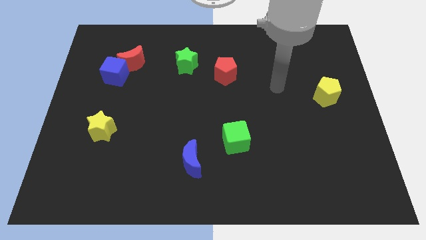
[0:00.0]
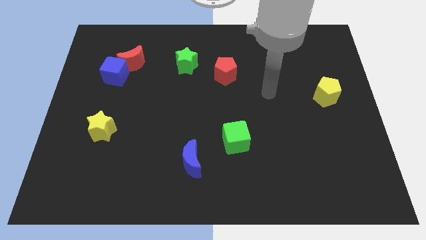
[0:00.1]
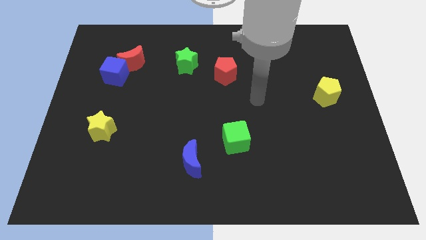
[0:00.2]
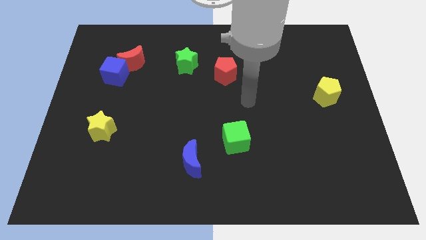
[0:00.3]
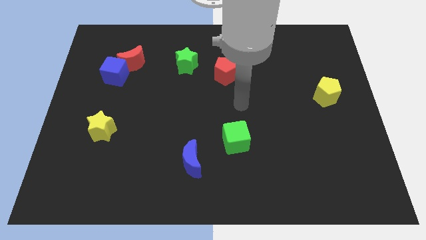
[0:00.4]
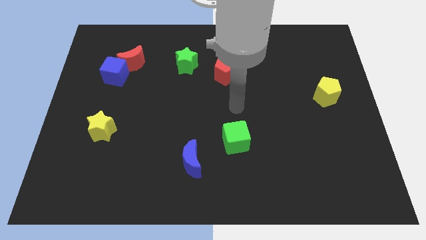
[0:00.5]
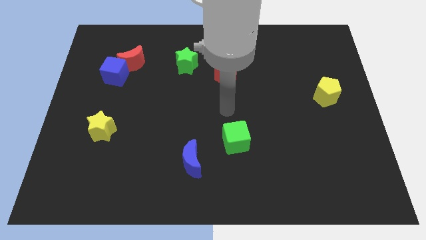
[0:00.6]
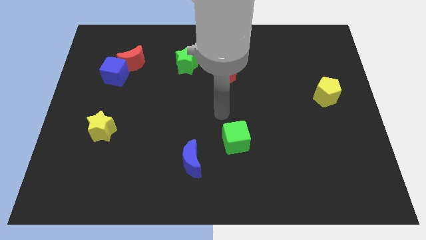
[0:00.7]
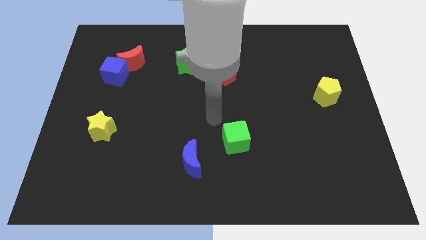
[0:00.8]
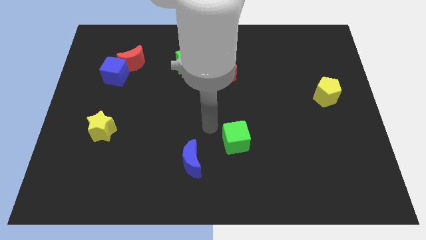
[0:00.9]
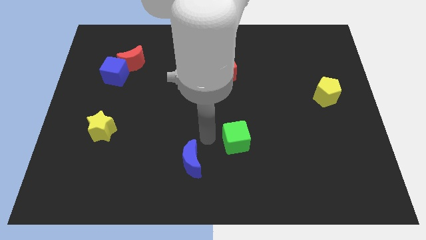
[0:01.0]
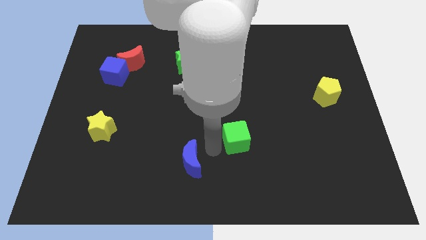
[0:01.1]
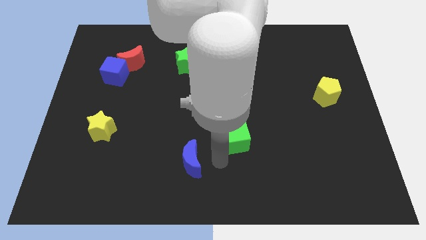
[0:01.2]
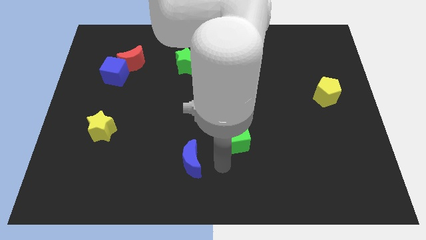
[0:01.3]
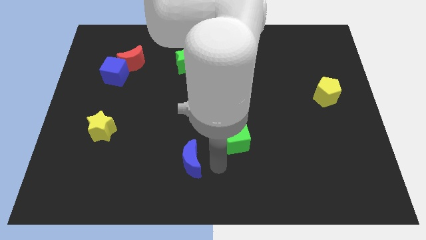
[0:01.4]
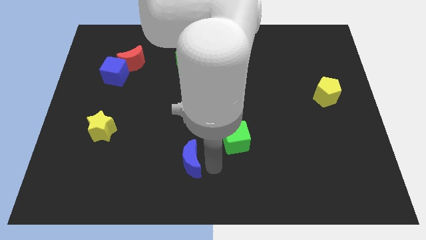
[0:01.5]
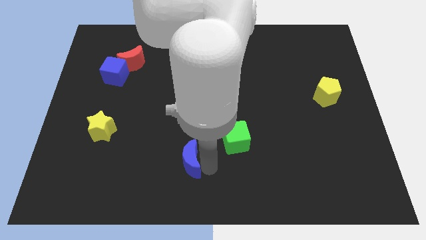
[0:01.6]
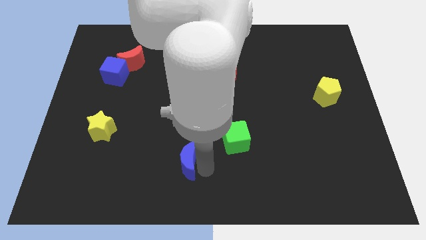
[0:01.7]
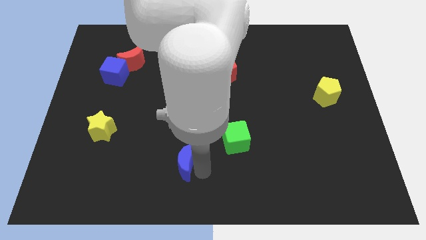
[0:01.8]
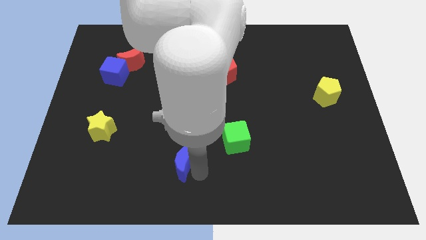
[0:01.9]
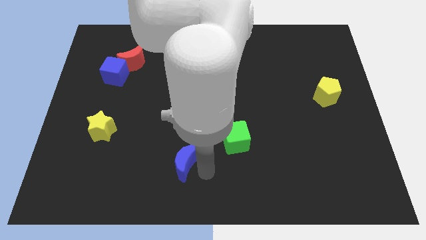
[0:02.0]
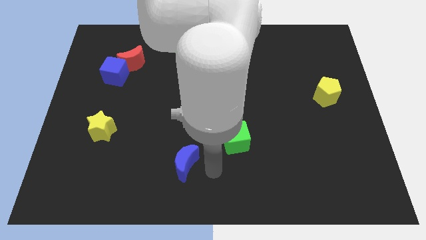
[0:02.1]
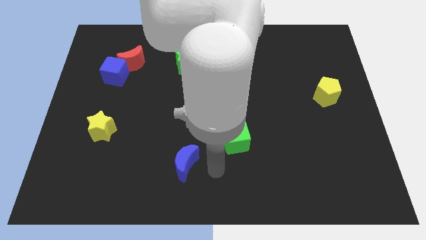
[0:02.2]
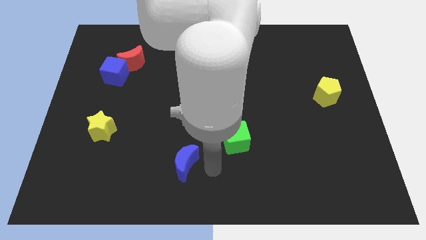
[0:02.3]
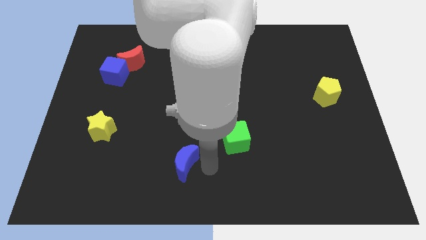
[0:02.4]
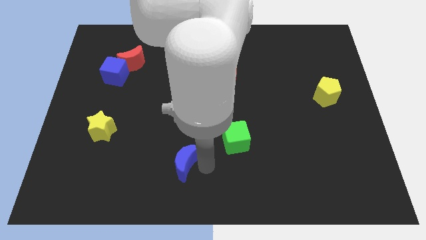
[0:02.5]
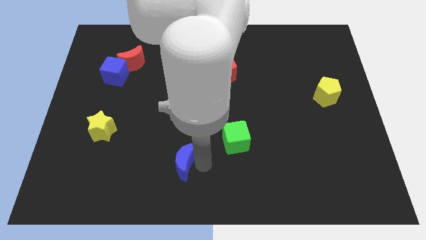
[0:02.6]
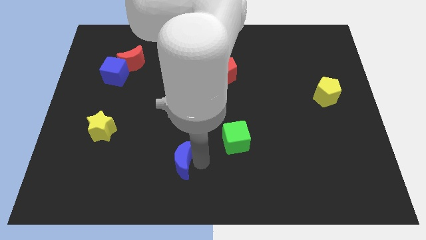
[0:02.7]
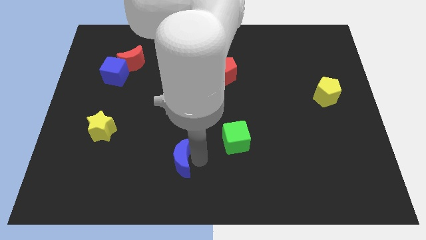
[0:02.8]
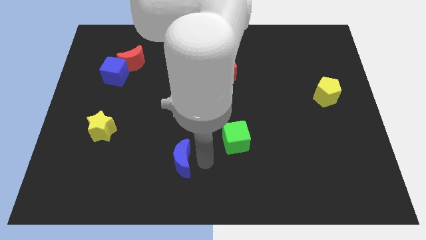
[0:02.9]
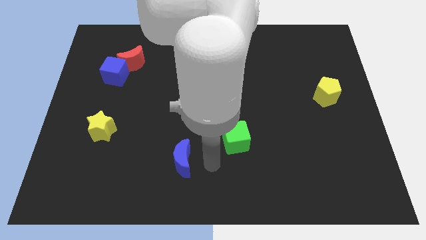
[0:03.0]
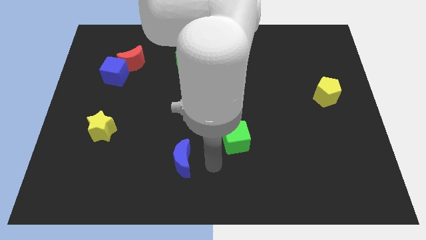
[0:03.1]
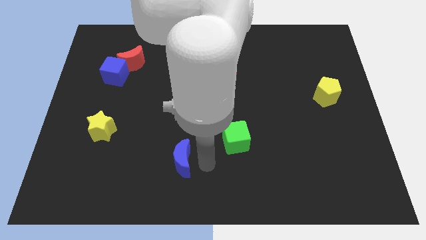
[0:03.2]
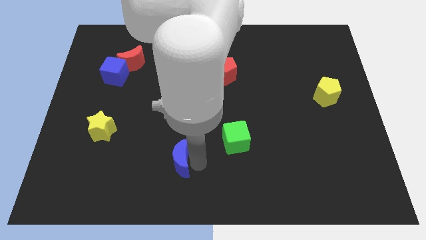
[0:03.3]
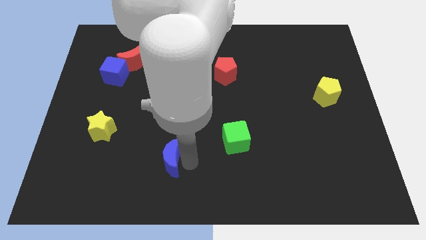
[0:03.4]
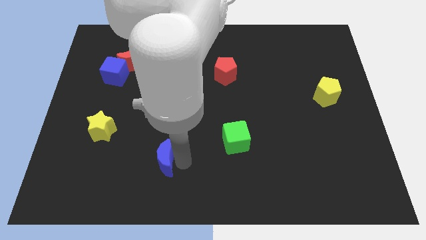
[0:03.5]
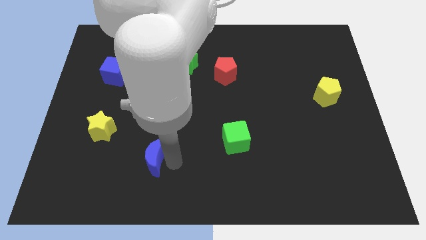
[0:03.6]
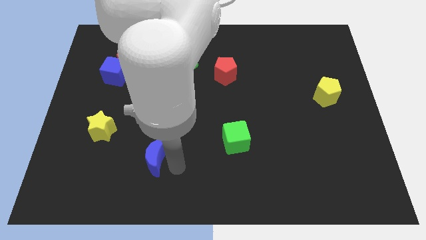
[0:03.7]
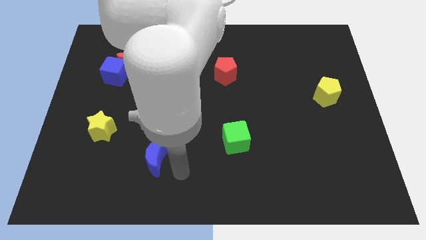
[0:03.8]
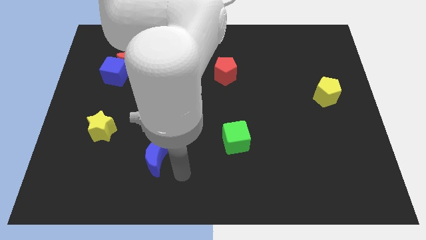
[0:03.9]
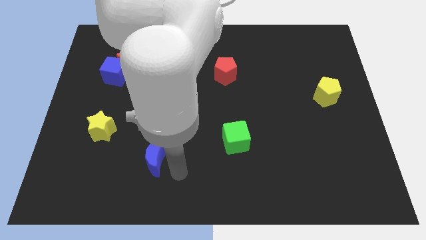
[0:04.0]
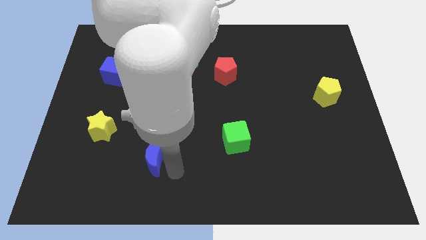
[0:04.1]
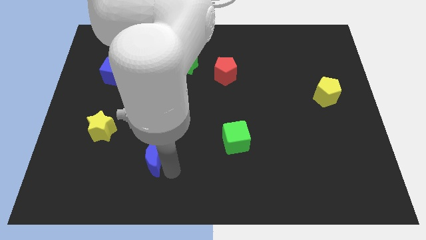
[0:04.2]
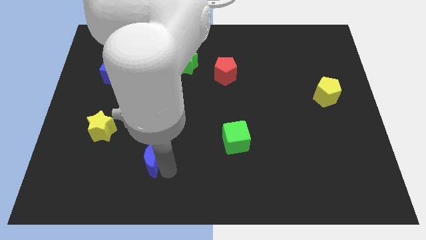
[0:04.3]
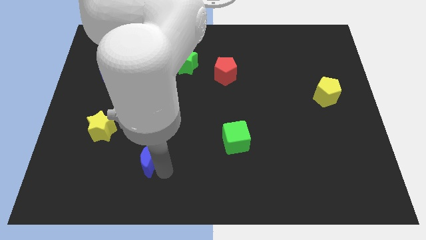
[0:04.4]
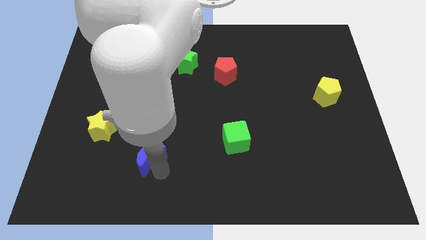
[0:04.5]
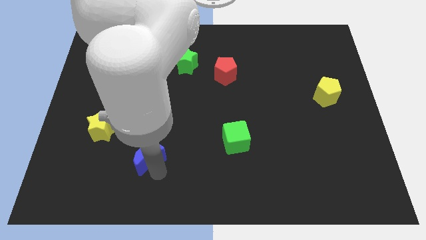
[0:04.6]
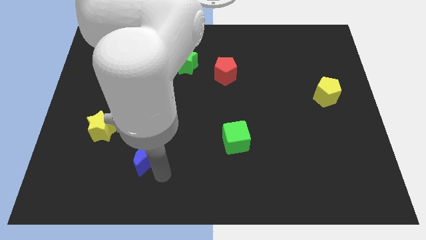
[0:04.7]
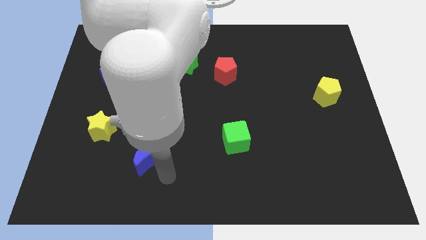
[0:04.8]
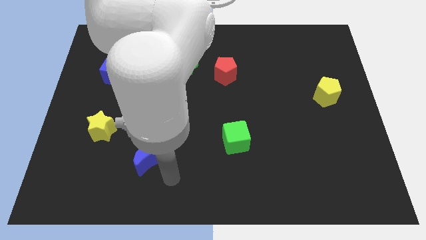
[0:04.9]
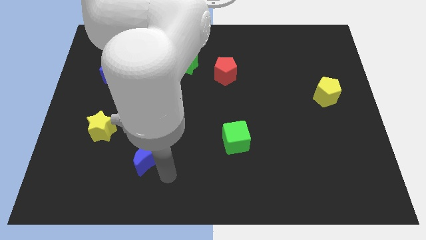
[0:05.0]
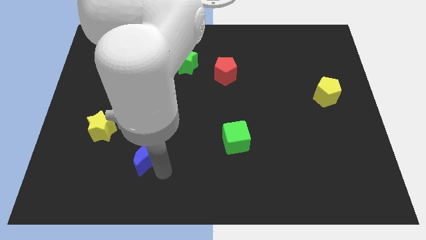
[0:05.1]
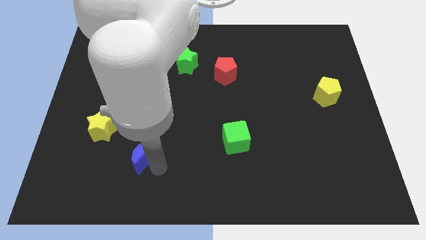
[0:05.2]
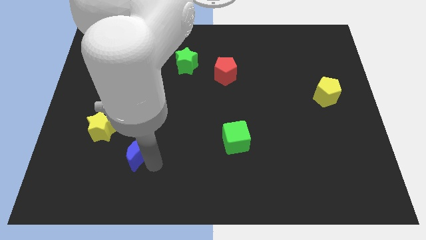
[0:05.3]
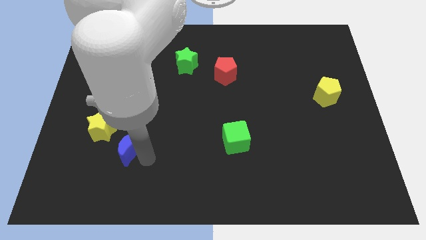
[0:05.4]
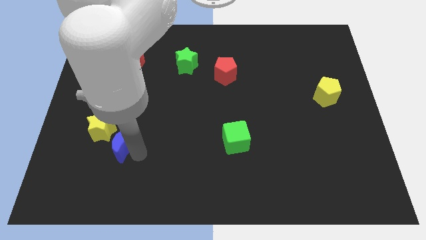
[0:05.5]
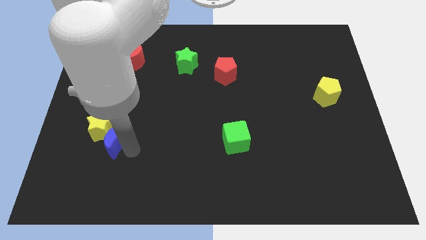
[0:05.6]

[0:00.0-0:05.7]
move the blue moon towards the yellow star

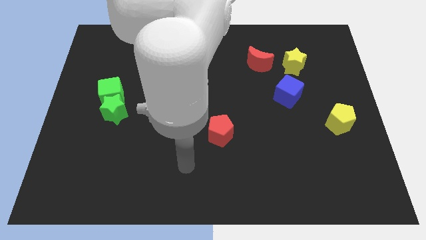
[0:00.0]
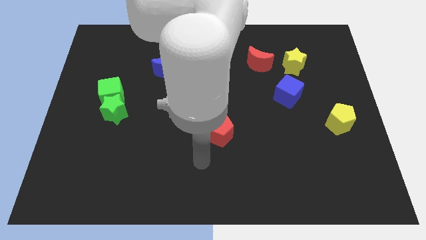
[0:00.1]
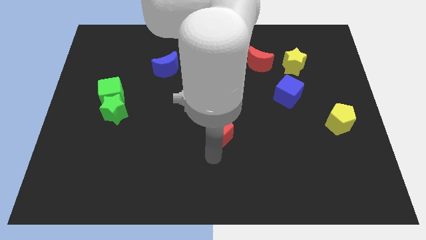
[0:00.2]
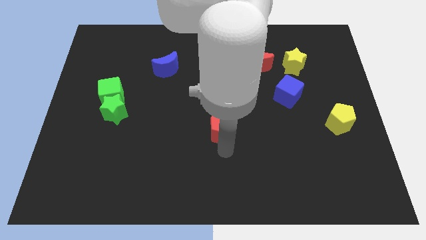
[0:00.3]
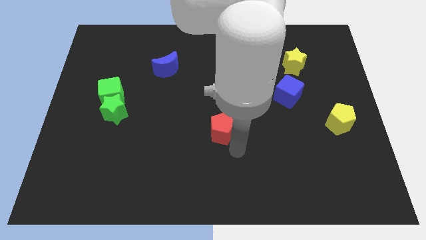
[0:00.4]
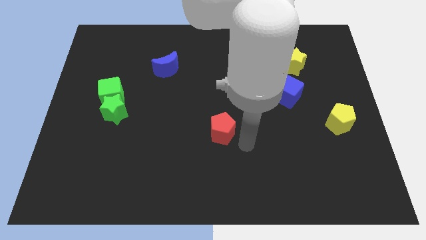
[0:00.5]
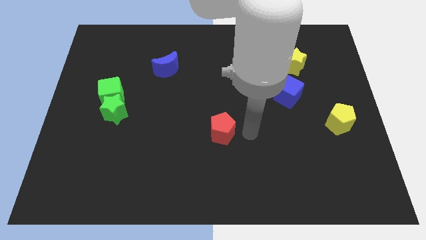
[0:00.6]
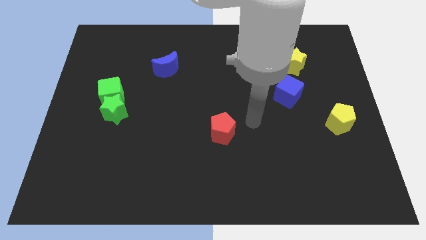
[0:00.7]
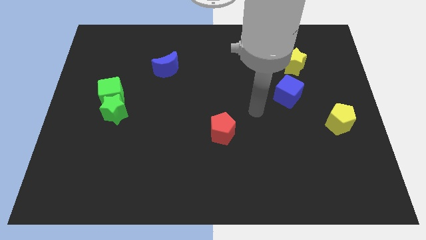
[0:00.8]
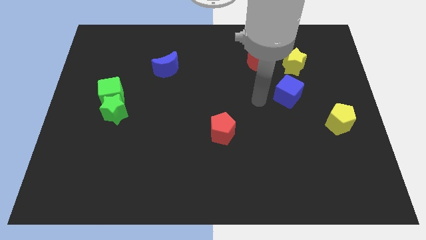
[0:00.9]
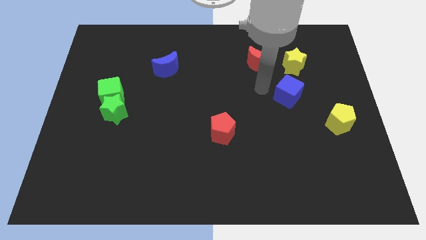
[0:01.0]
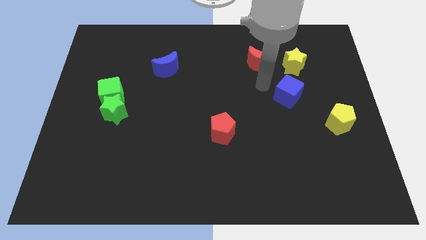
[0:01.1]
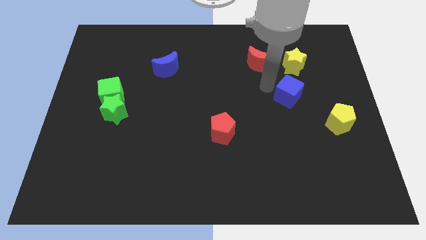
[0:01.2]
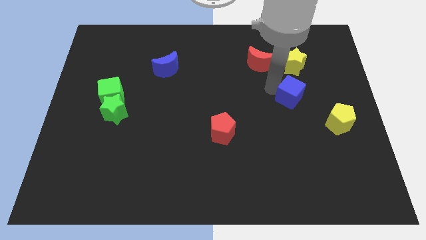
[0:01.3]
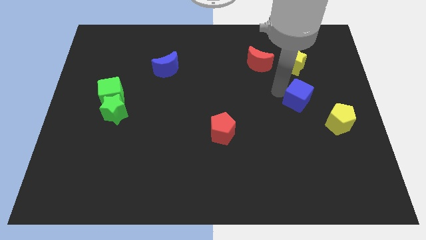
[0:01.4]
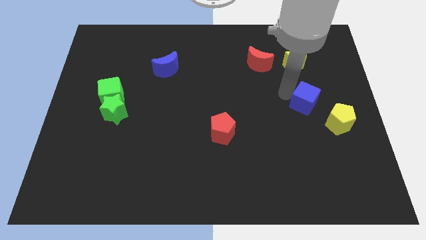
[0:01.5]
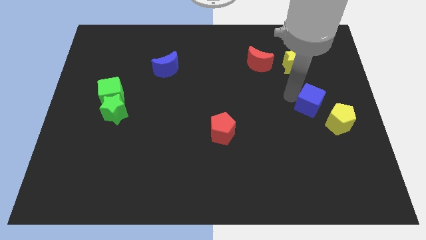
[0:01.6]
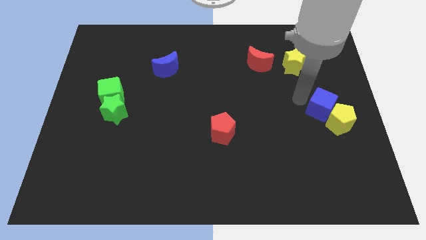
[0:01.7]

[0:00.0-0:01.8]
push the blue cube close to the yellow pentagon

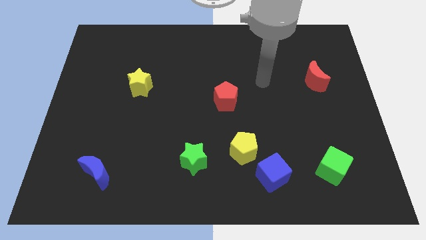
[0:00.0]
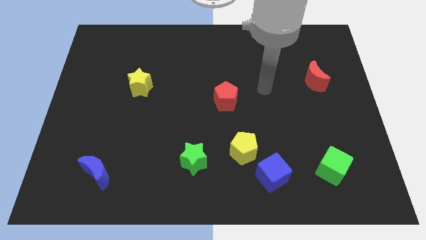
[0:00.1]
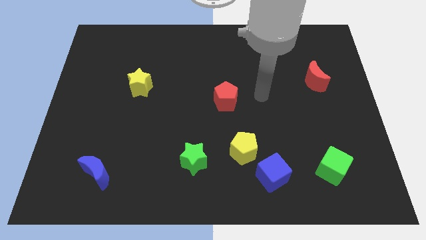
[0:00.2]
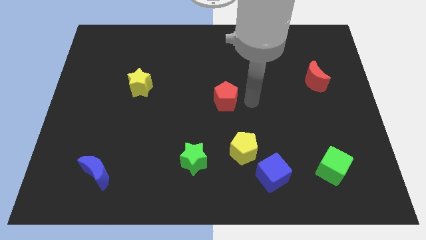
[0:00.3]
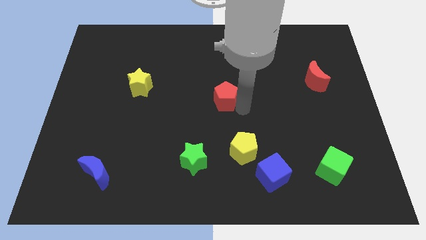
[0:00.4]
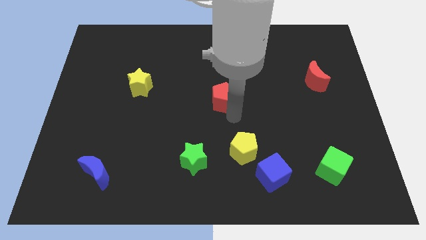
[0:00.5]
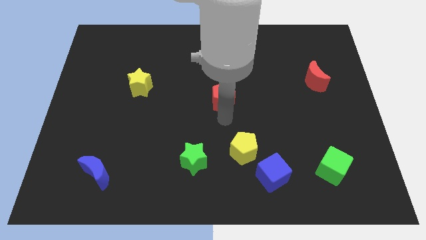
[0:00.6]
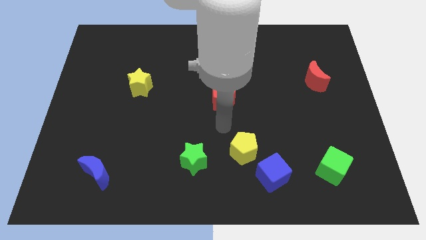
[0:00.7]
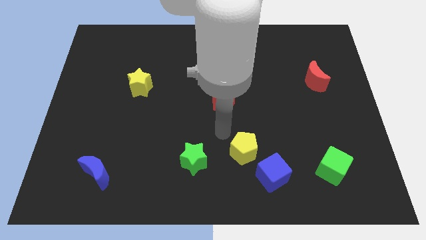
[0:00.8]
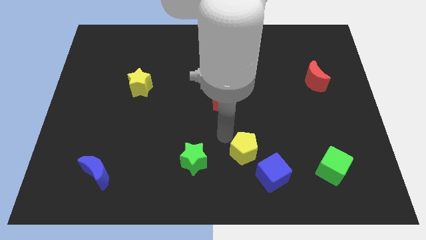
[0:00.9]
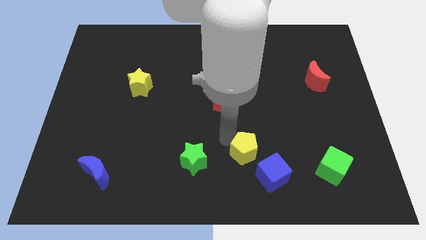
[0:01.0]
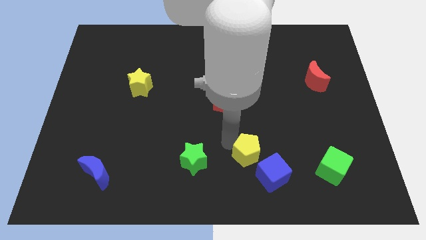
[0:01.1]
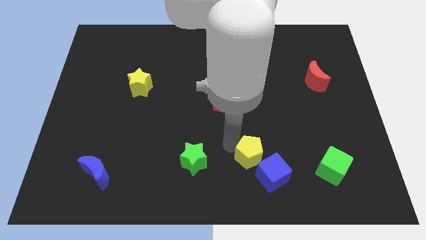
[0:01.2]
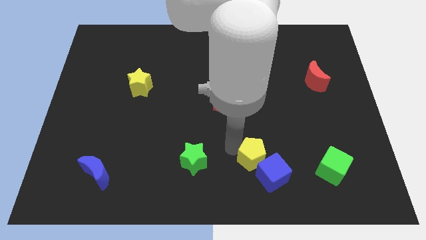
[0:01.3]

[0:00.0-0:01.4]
slide the yellow pentagon towards the blue cube
